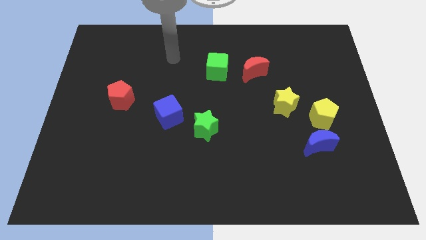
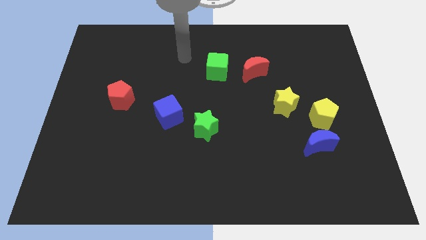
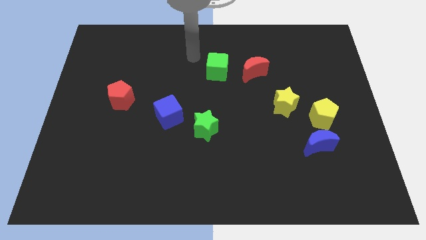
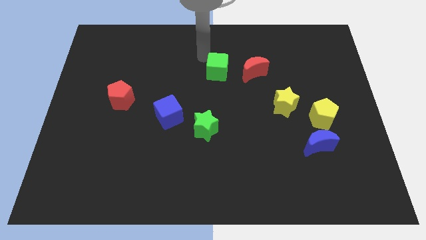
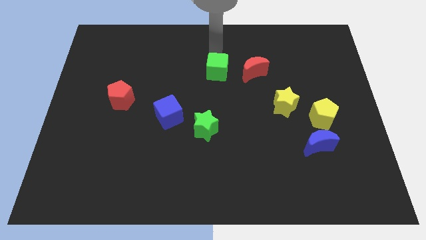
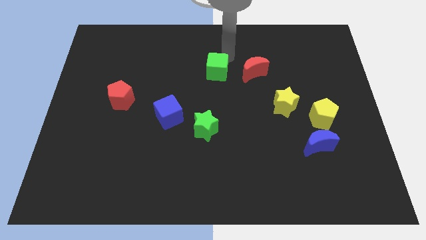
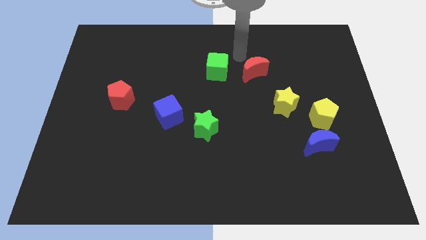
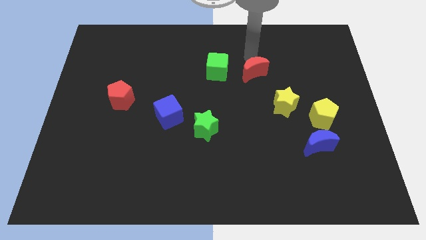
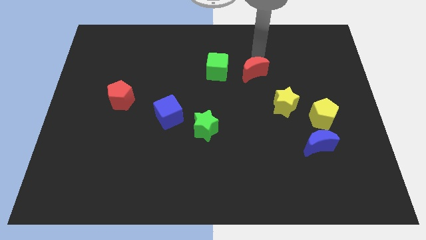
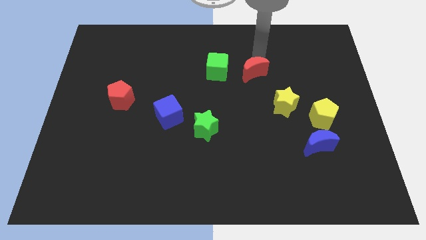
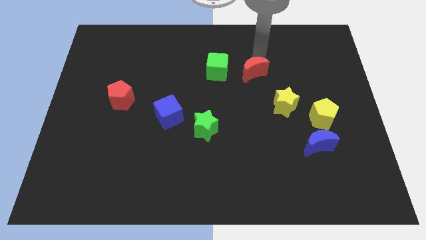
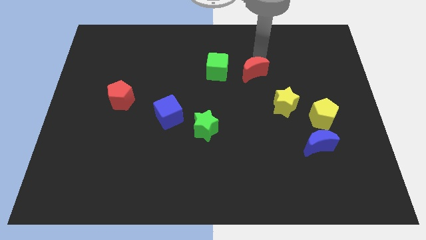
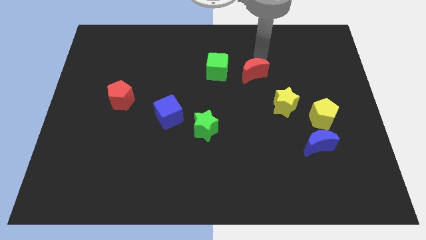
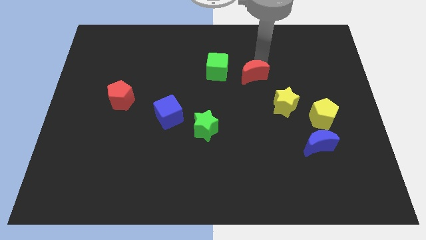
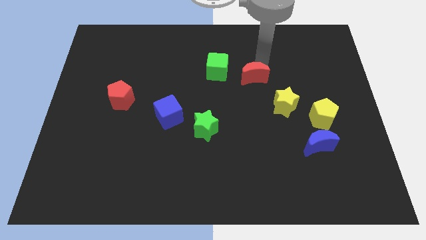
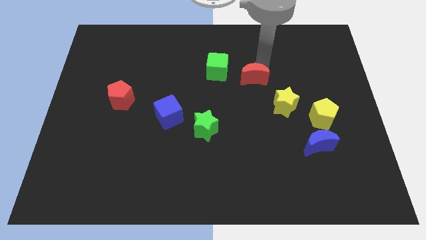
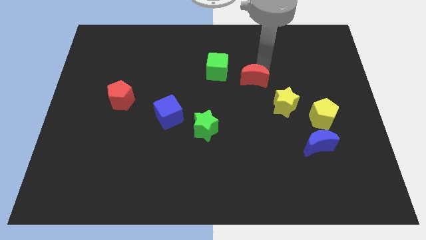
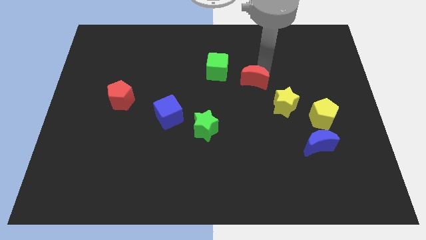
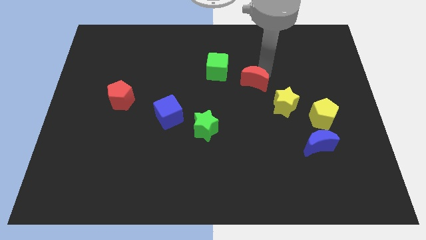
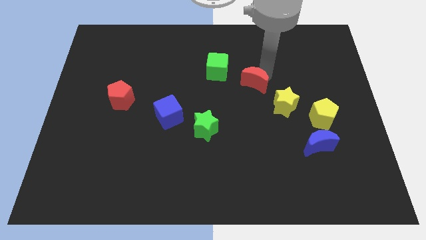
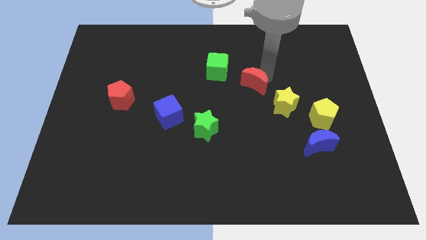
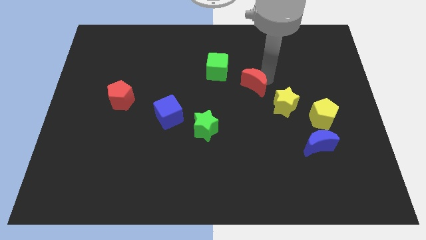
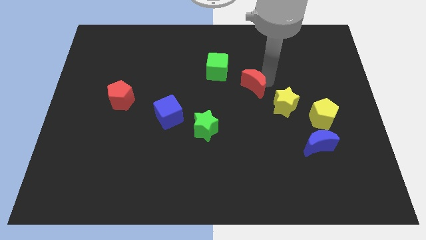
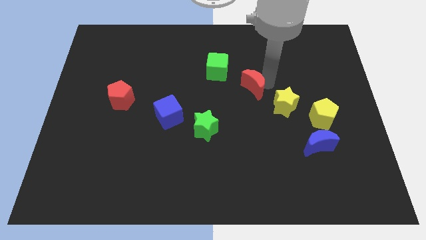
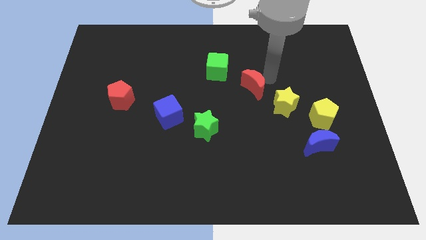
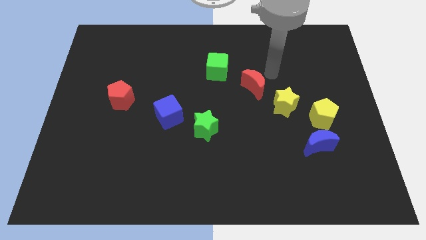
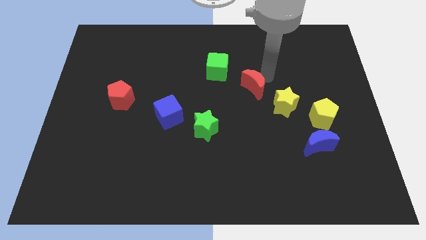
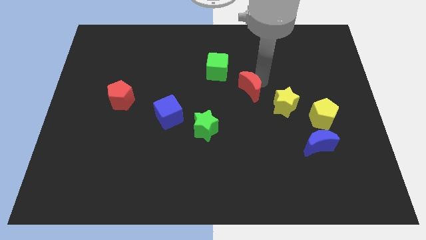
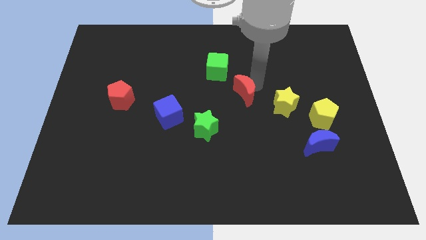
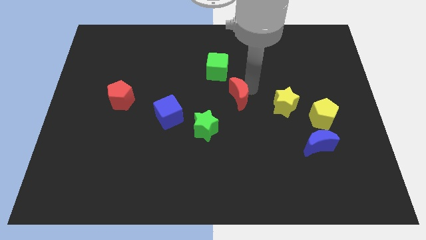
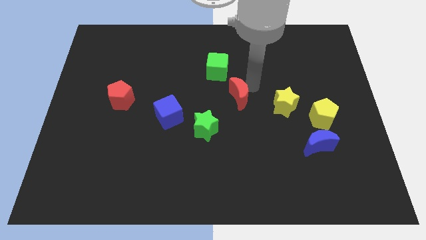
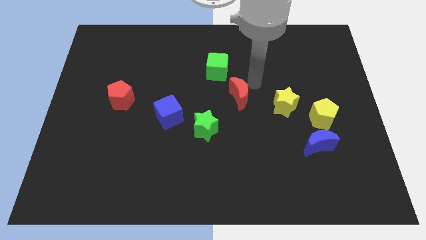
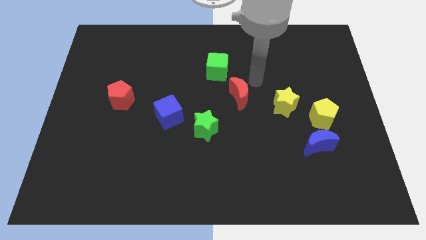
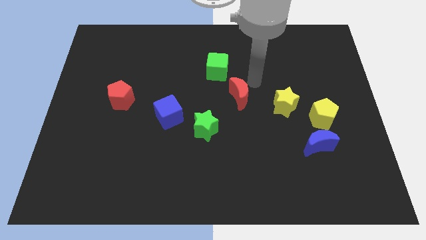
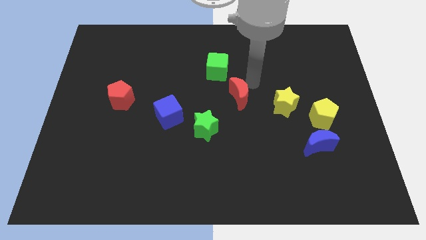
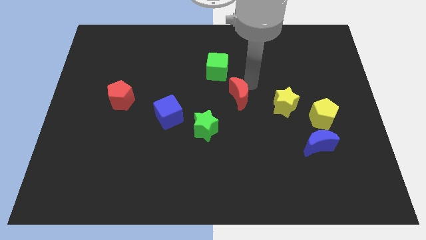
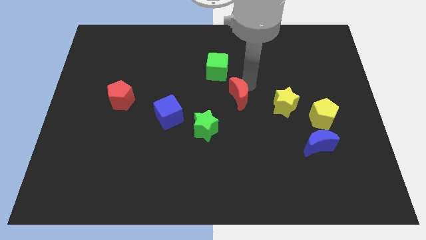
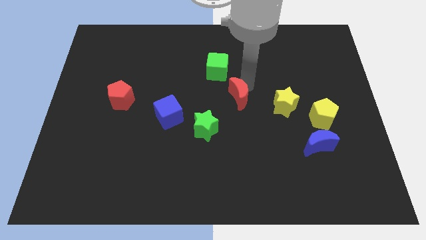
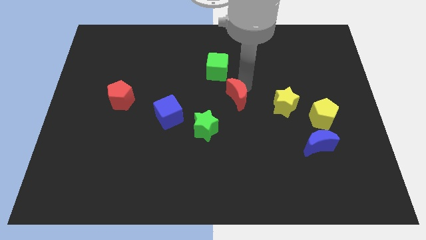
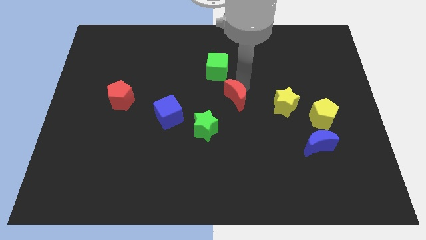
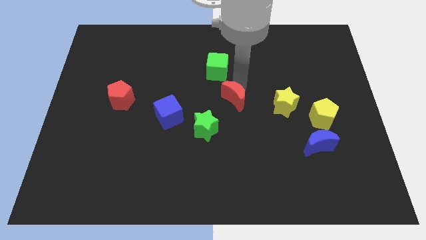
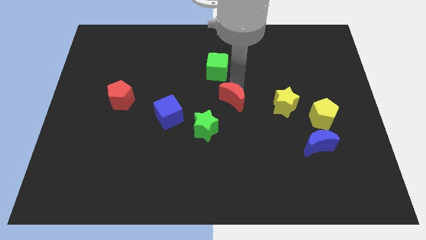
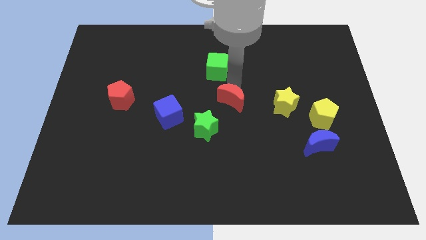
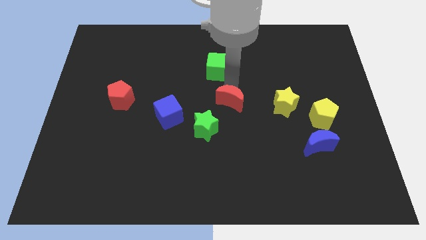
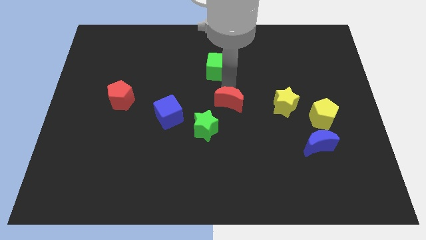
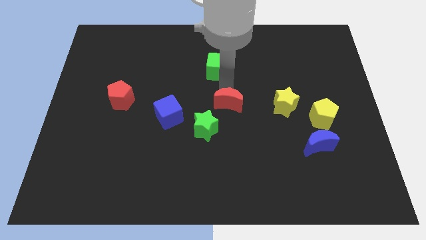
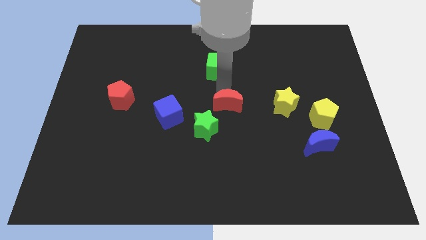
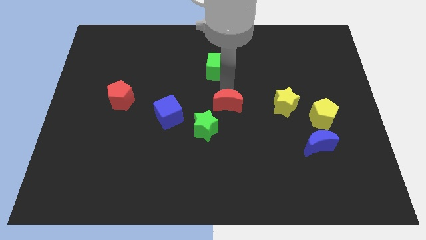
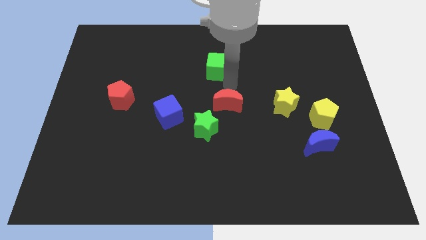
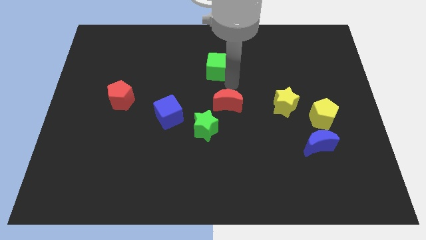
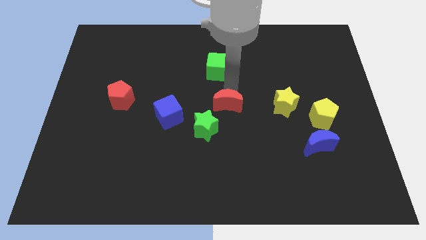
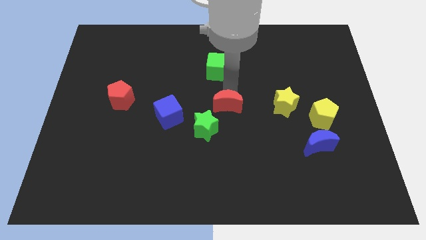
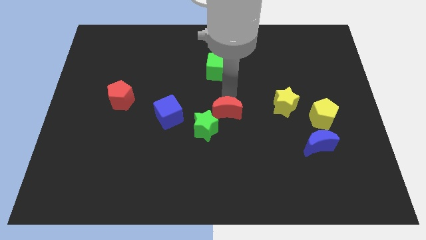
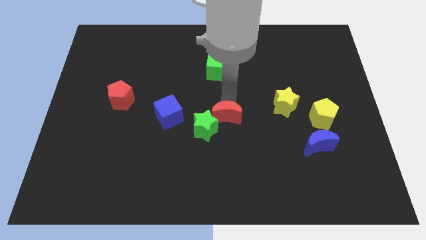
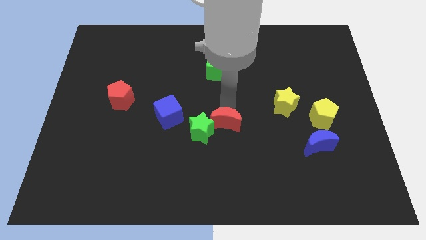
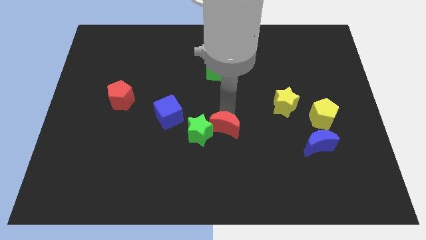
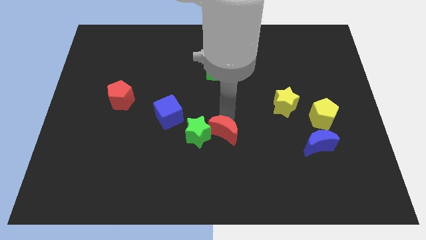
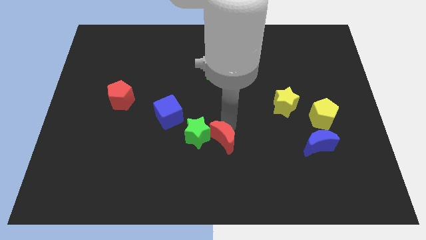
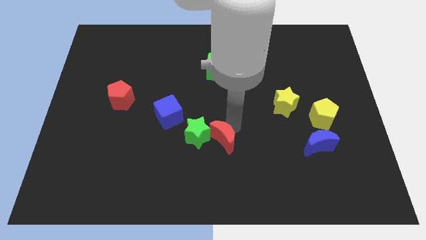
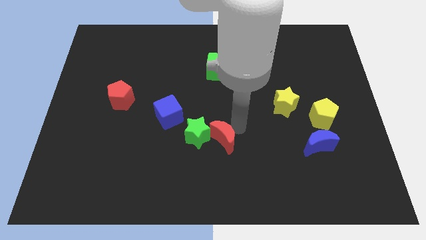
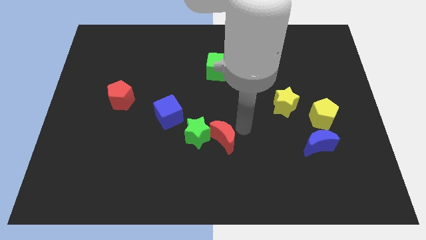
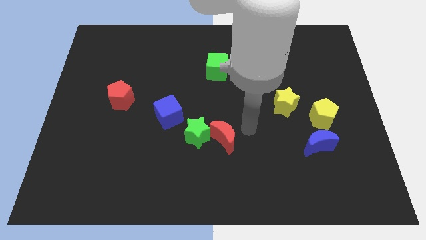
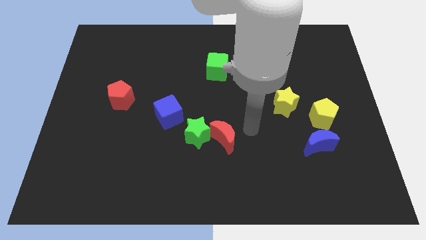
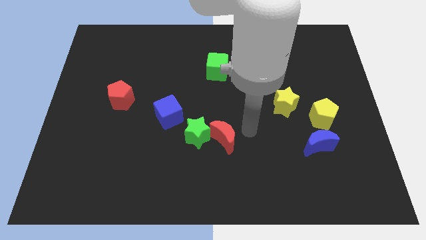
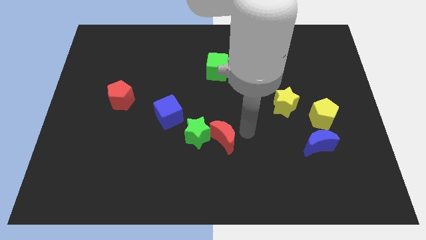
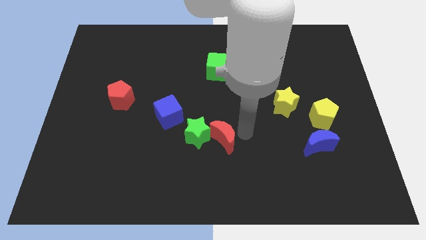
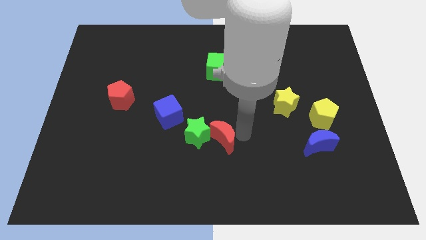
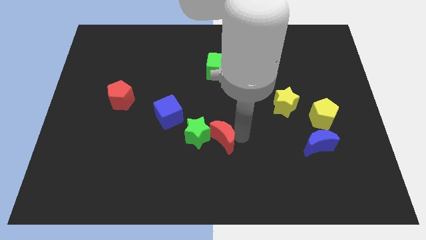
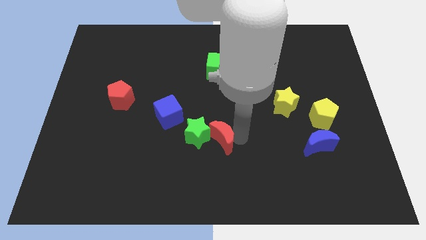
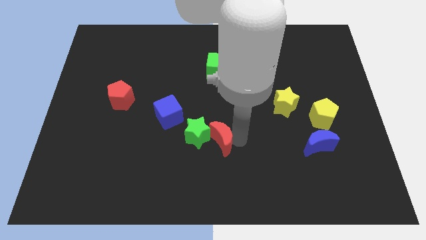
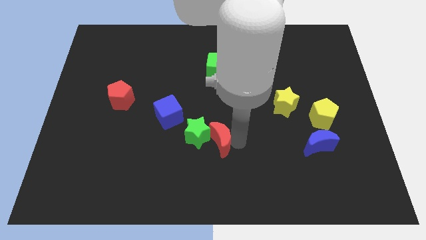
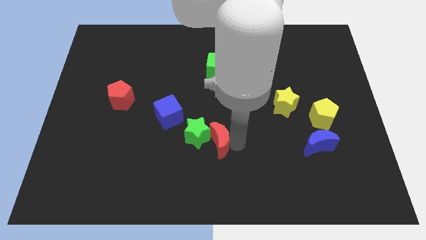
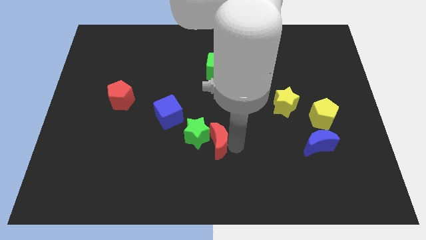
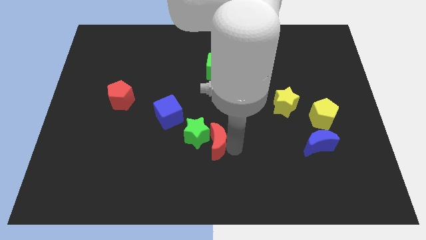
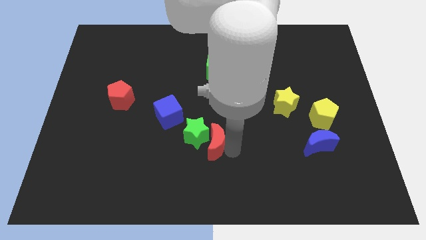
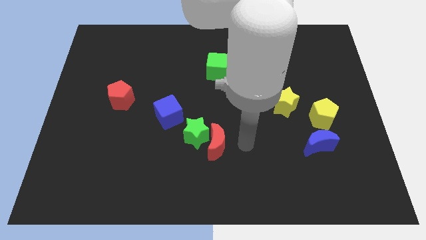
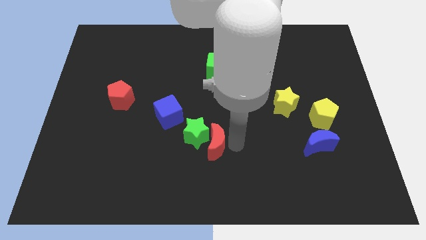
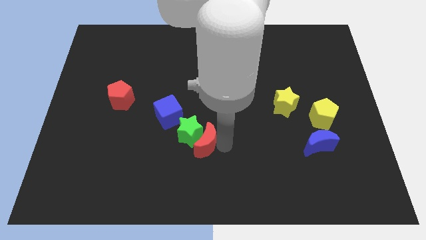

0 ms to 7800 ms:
slide the red moon downwards and to the left

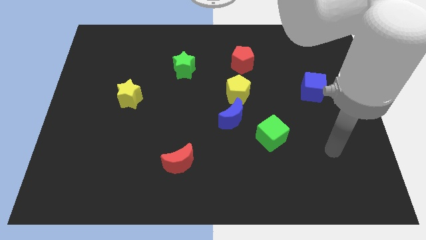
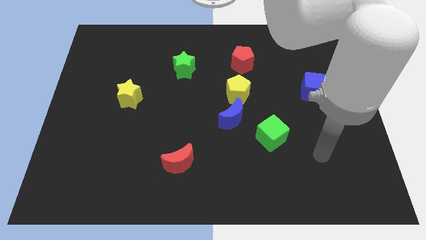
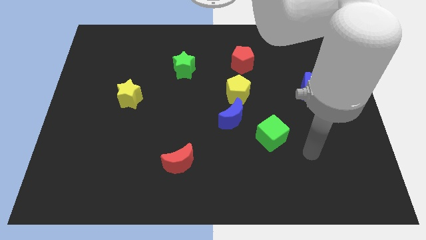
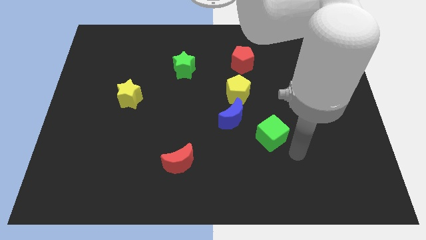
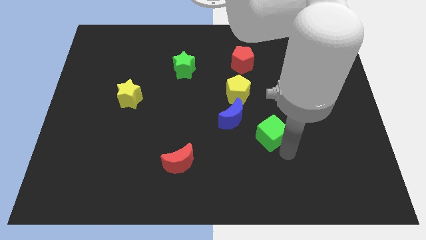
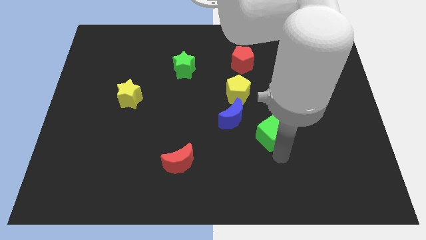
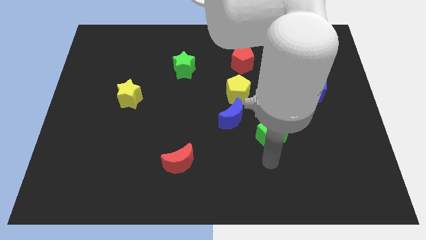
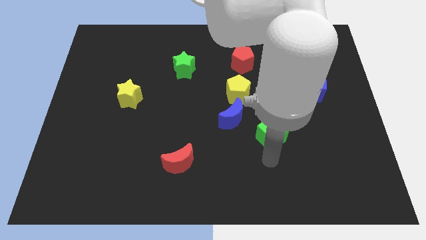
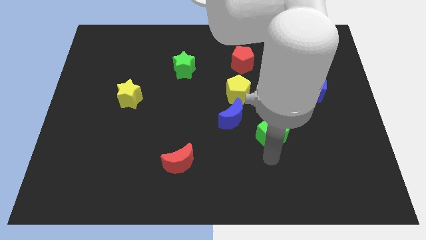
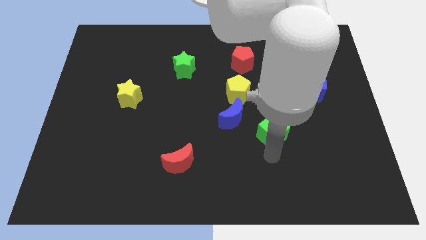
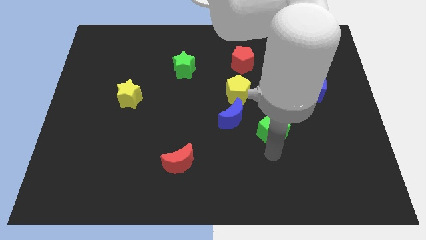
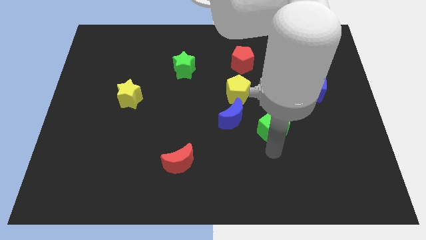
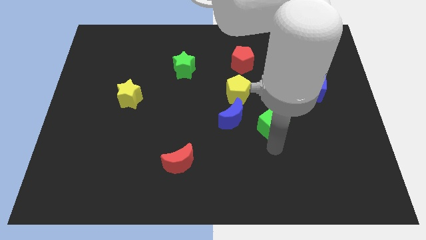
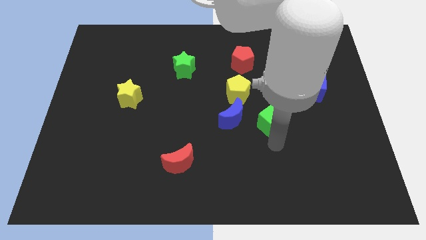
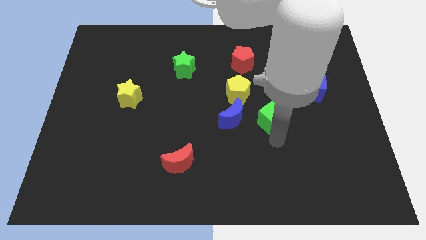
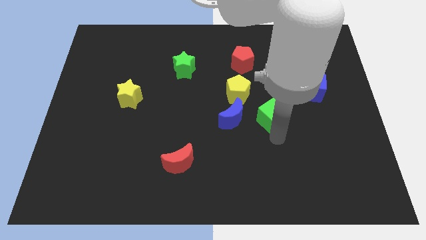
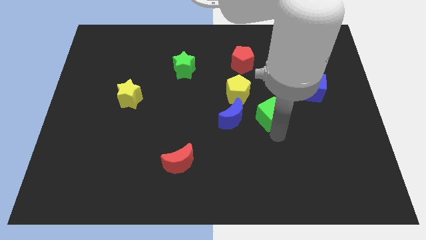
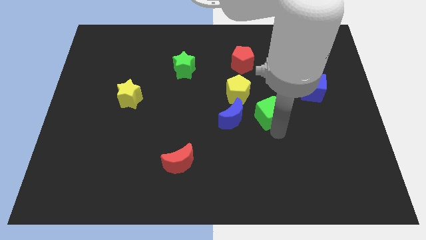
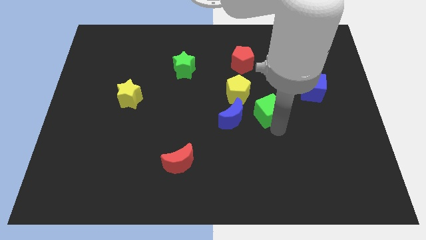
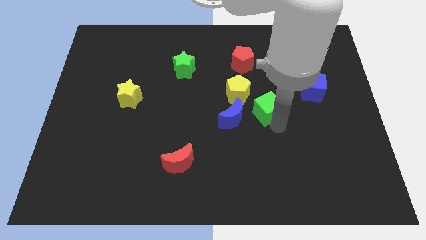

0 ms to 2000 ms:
push the green cube a little bit up
